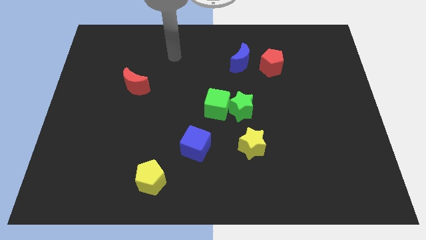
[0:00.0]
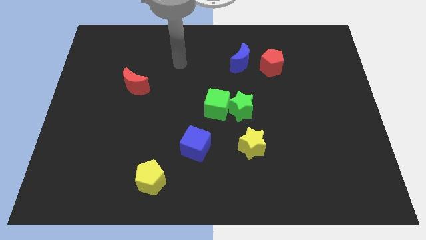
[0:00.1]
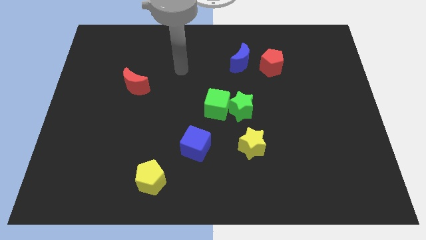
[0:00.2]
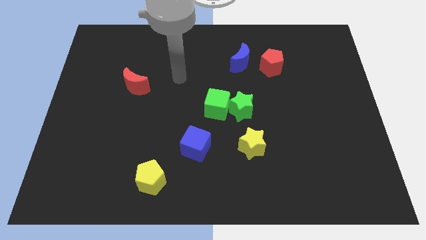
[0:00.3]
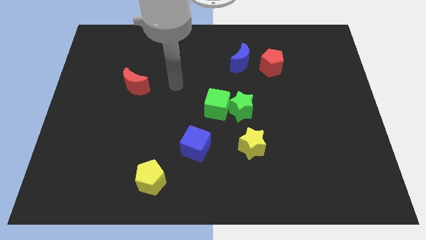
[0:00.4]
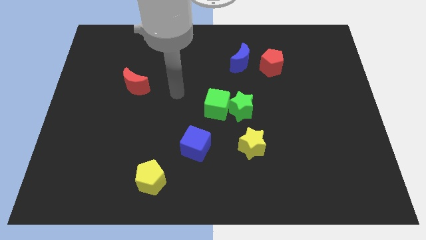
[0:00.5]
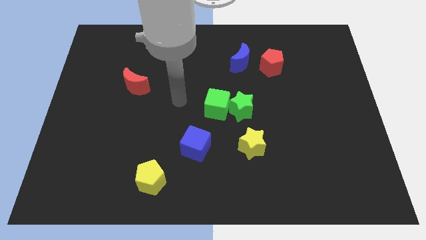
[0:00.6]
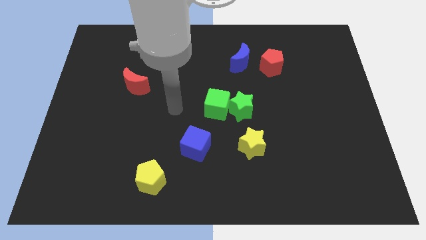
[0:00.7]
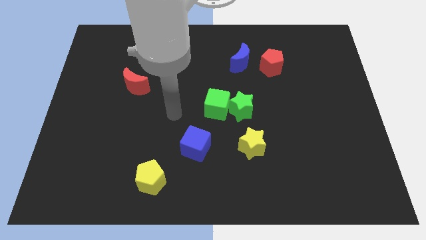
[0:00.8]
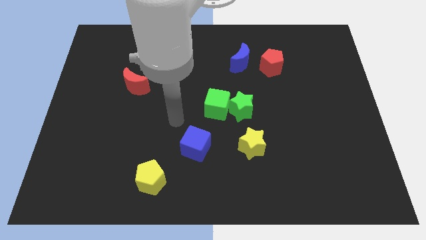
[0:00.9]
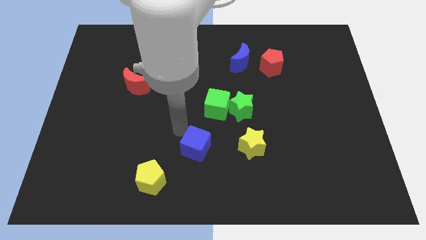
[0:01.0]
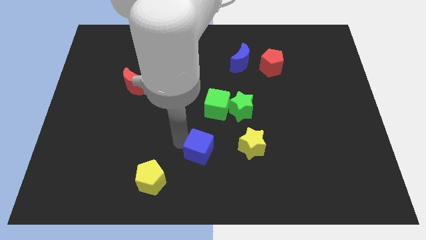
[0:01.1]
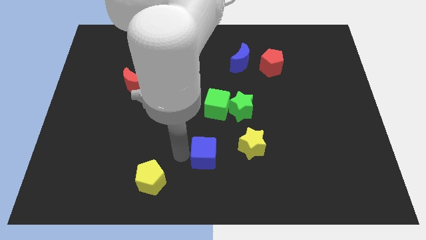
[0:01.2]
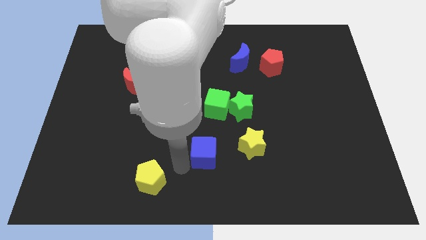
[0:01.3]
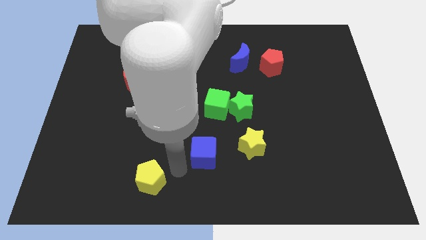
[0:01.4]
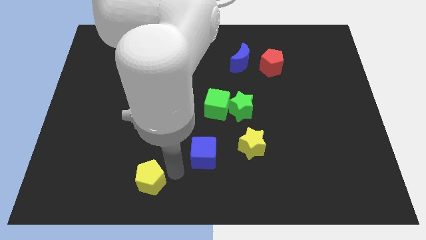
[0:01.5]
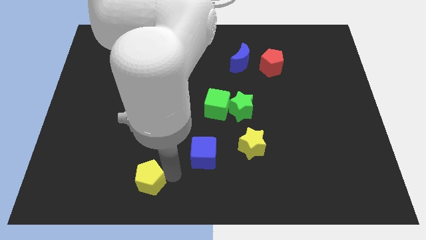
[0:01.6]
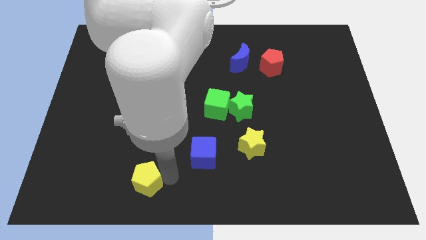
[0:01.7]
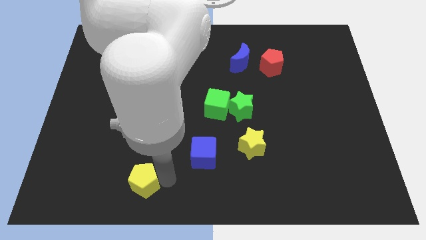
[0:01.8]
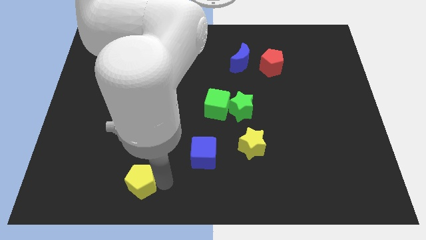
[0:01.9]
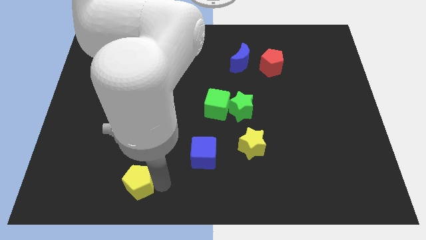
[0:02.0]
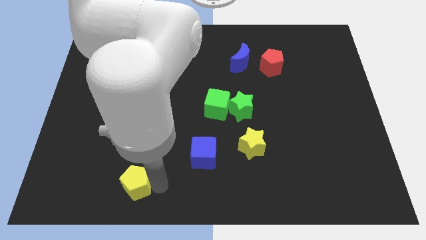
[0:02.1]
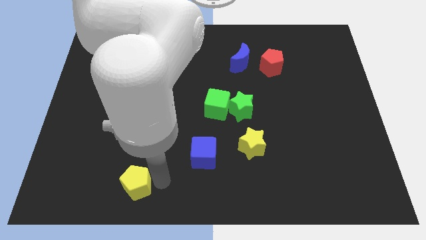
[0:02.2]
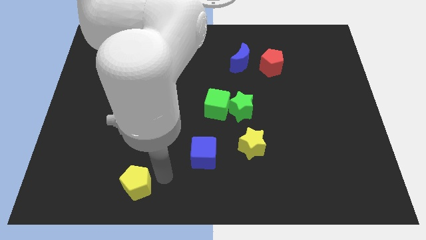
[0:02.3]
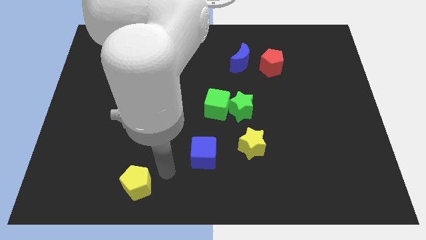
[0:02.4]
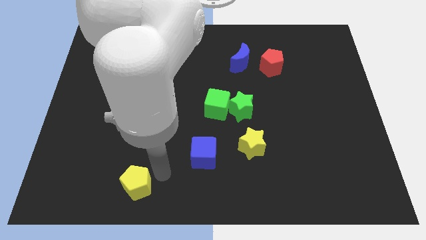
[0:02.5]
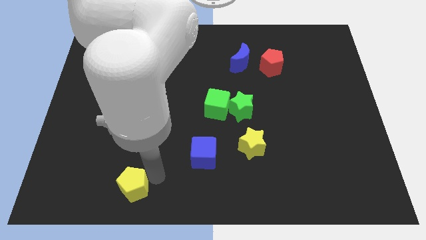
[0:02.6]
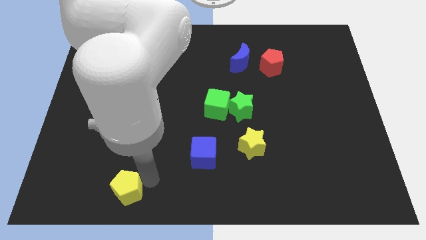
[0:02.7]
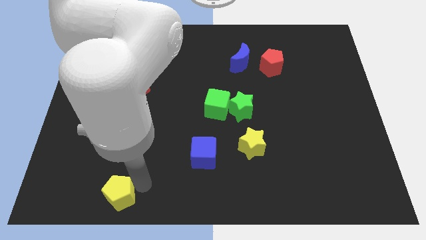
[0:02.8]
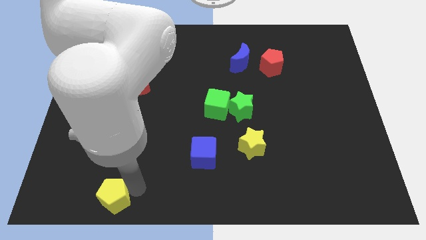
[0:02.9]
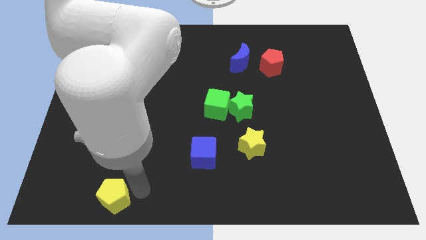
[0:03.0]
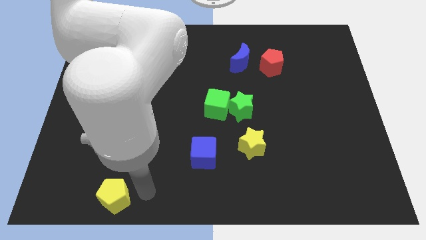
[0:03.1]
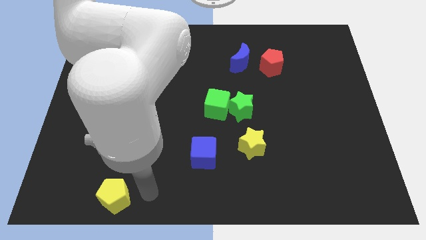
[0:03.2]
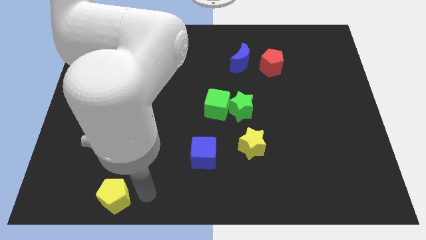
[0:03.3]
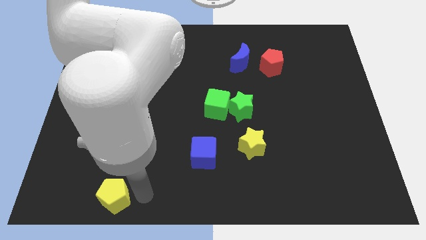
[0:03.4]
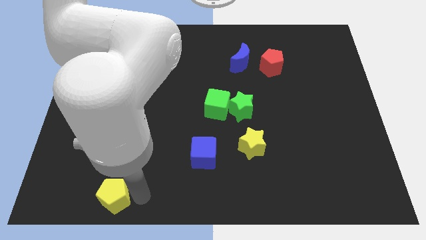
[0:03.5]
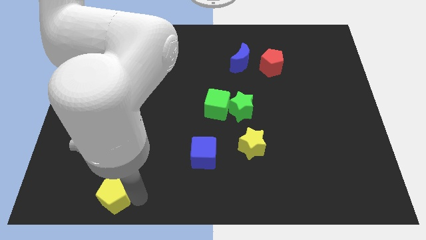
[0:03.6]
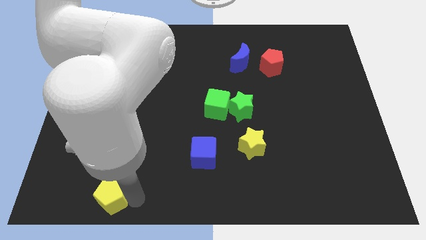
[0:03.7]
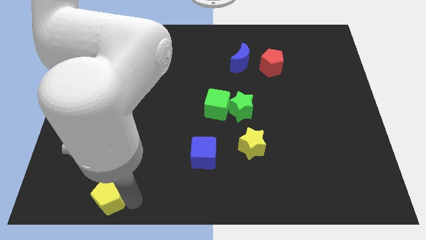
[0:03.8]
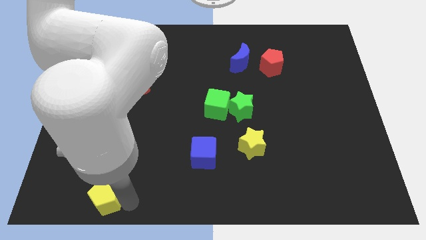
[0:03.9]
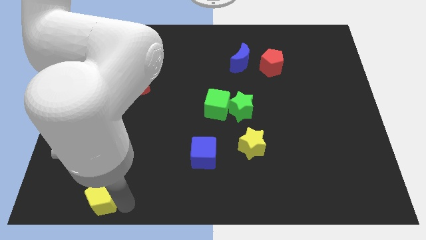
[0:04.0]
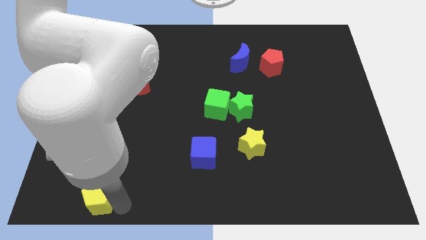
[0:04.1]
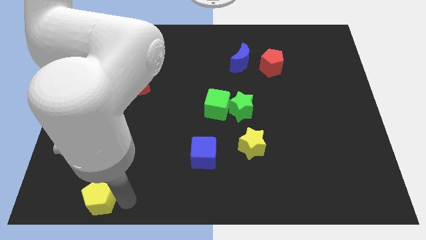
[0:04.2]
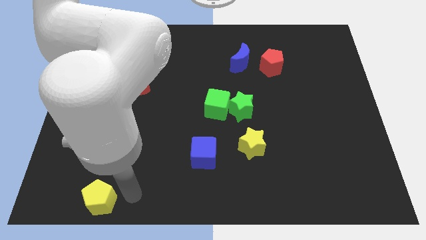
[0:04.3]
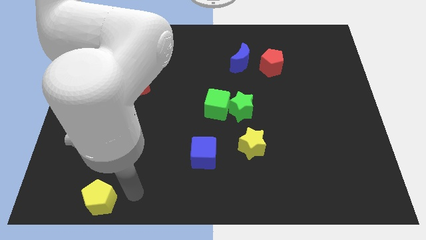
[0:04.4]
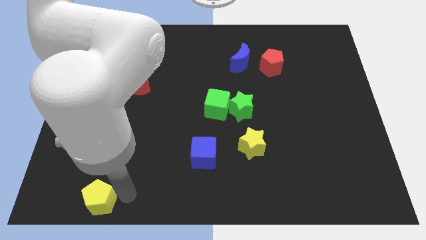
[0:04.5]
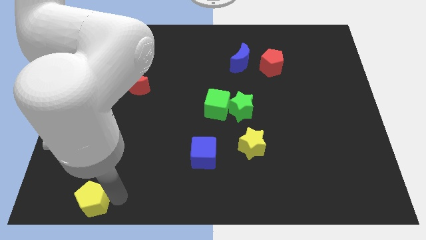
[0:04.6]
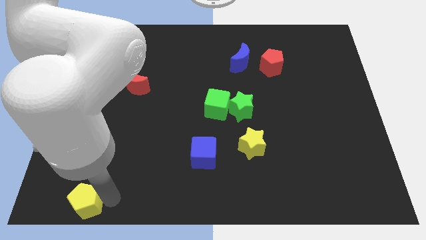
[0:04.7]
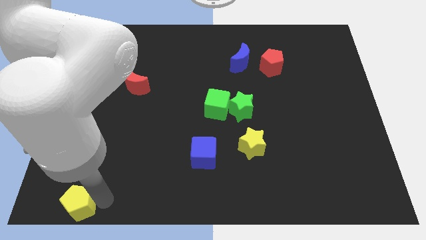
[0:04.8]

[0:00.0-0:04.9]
move the yellow pentagon to the lower left corner

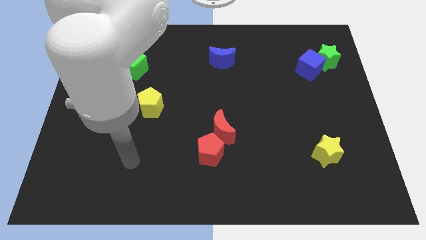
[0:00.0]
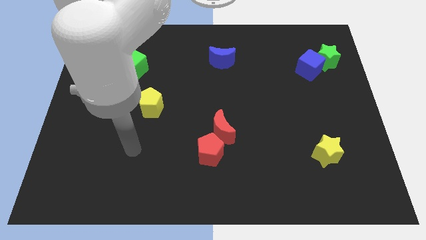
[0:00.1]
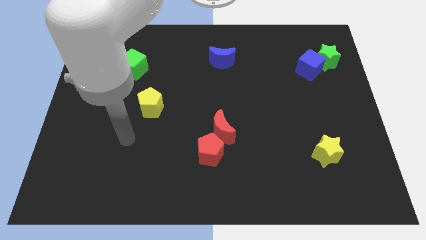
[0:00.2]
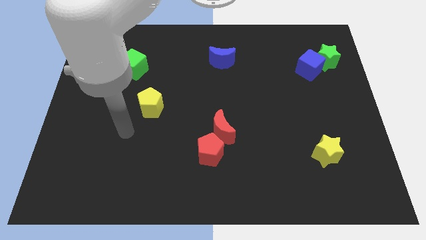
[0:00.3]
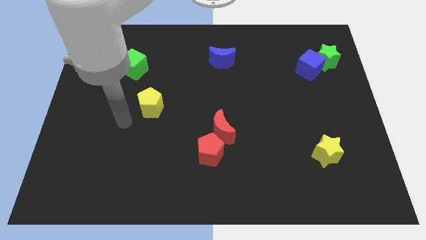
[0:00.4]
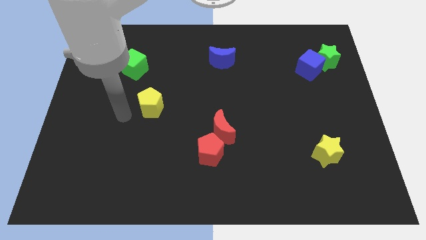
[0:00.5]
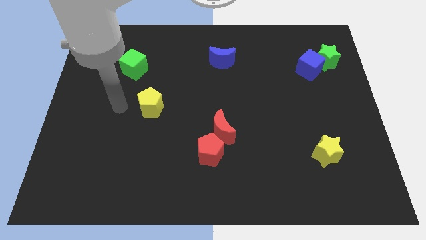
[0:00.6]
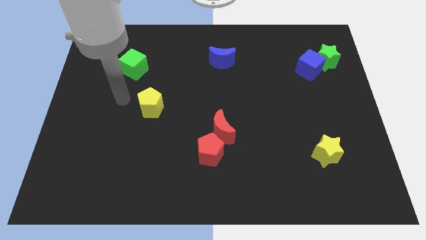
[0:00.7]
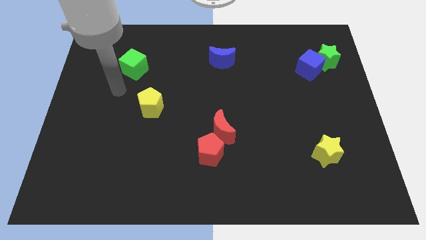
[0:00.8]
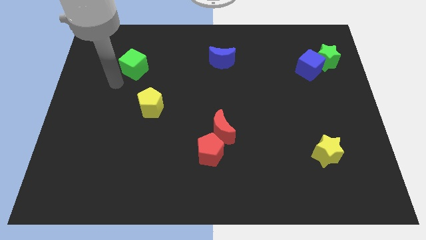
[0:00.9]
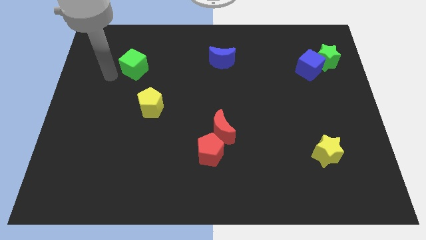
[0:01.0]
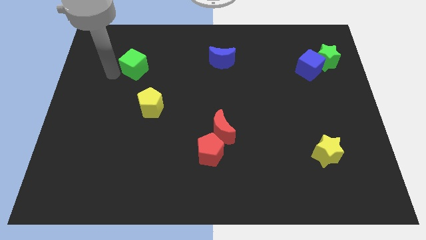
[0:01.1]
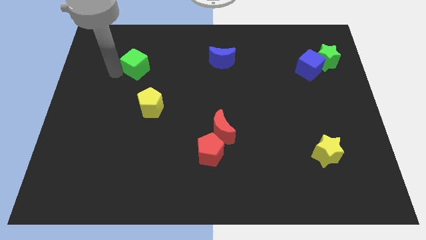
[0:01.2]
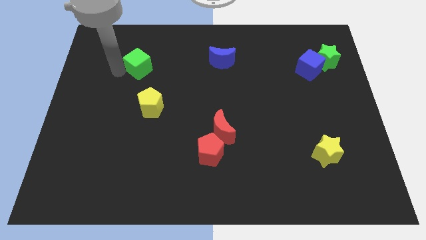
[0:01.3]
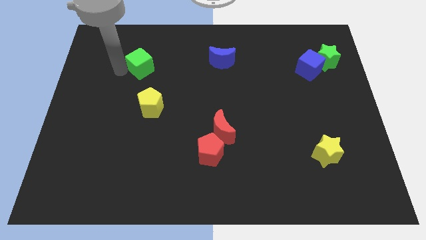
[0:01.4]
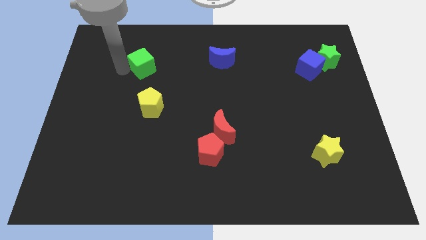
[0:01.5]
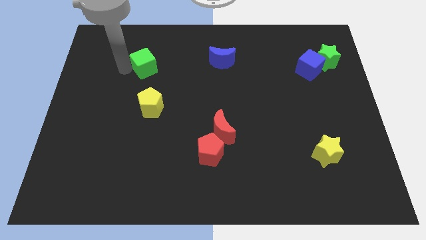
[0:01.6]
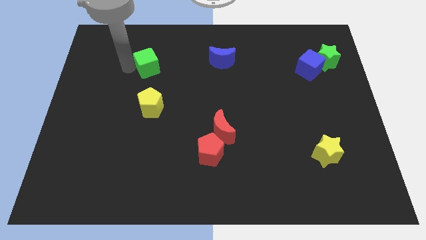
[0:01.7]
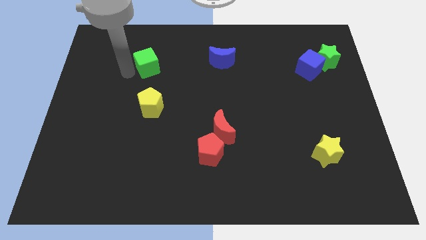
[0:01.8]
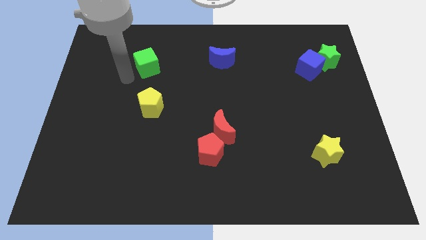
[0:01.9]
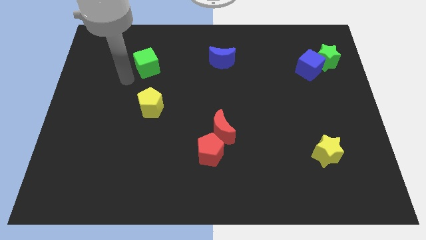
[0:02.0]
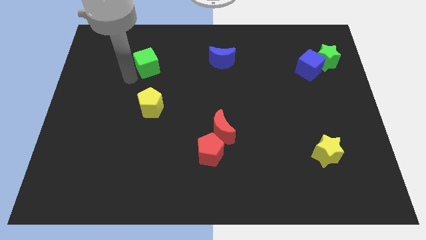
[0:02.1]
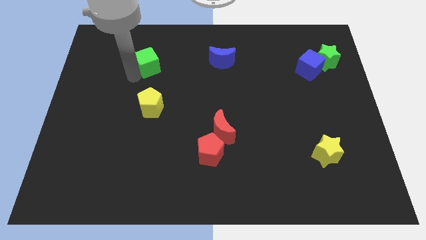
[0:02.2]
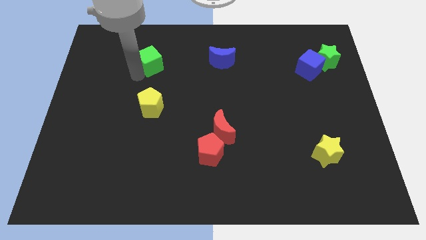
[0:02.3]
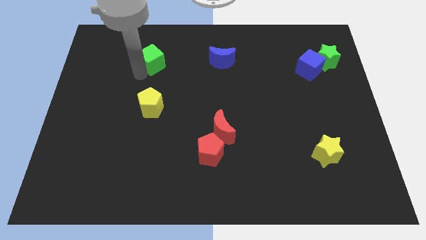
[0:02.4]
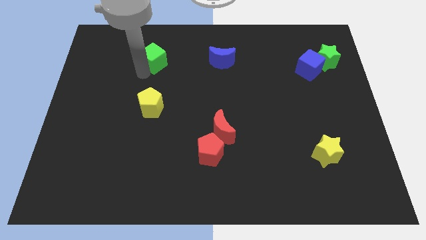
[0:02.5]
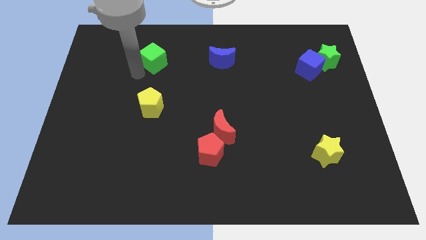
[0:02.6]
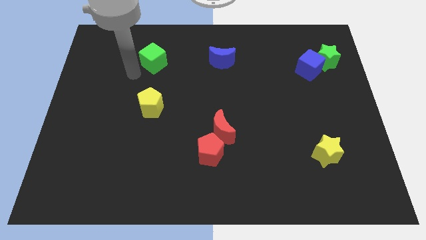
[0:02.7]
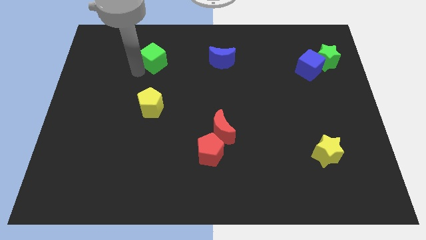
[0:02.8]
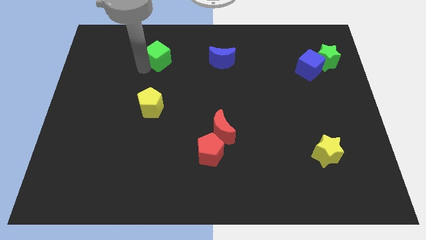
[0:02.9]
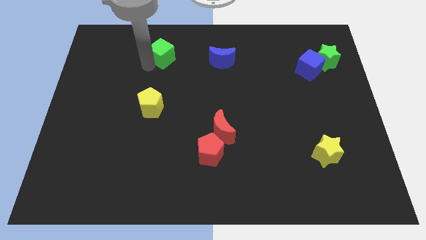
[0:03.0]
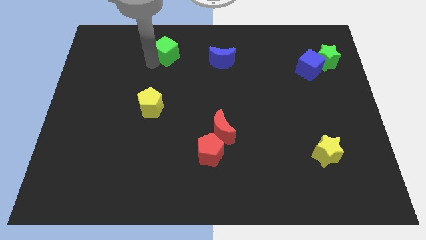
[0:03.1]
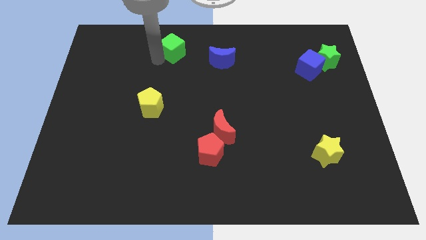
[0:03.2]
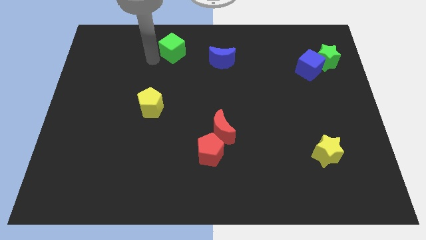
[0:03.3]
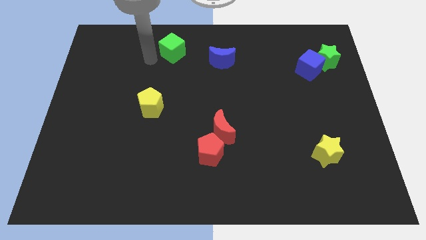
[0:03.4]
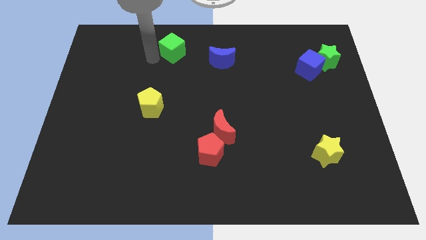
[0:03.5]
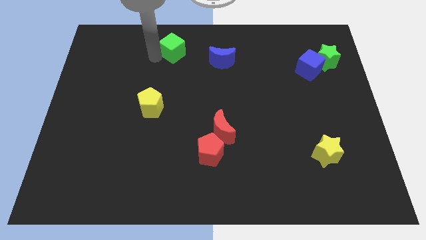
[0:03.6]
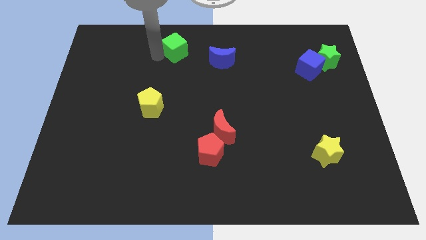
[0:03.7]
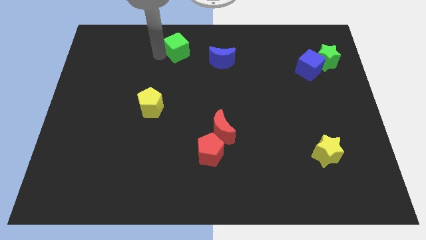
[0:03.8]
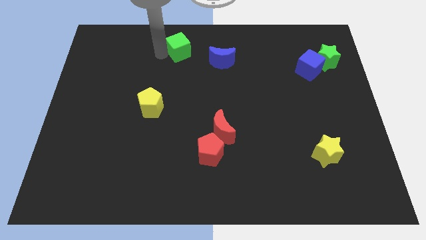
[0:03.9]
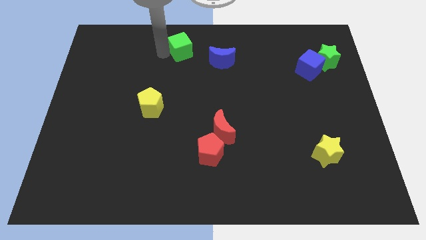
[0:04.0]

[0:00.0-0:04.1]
slide the green cube to the top side
